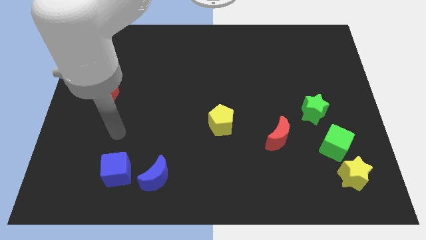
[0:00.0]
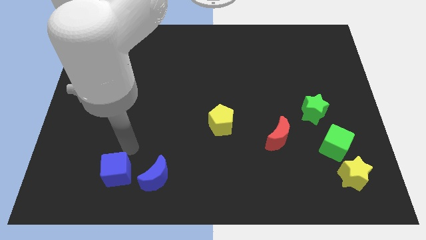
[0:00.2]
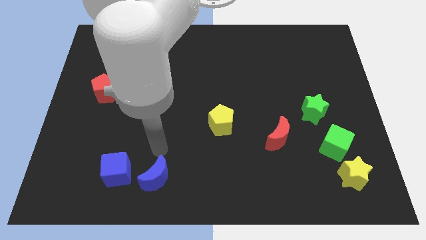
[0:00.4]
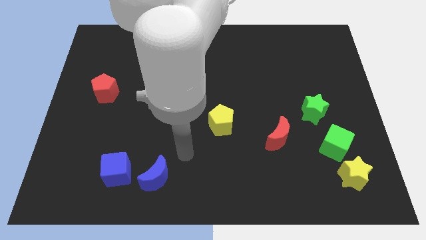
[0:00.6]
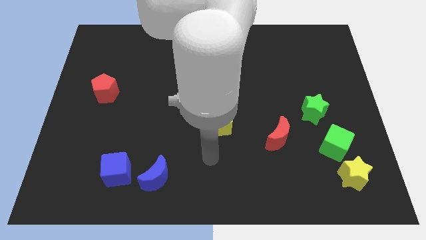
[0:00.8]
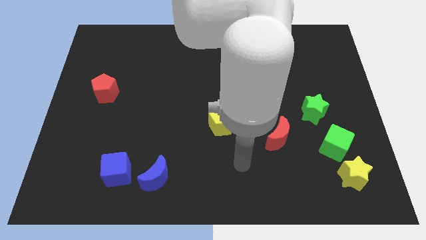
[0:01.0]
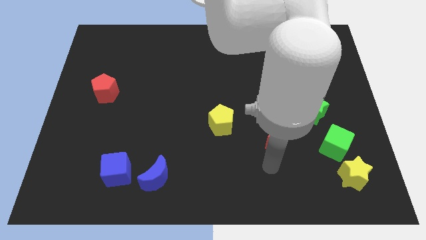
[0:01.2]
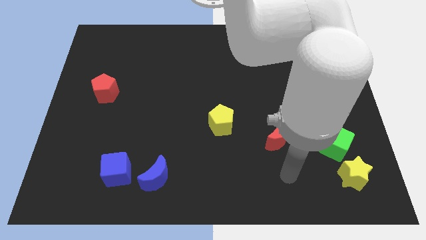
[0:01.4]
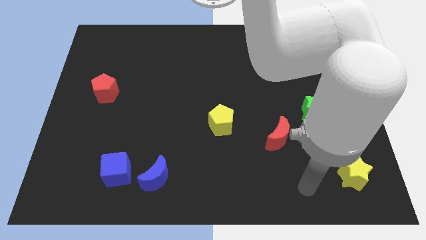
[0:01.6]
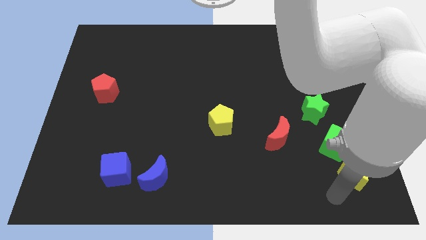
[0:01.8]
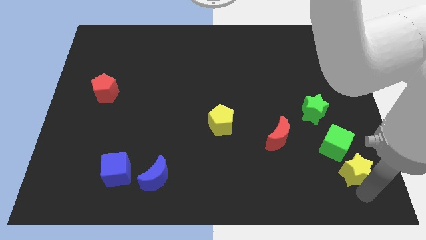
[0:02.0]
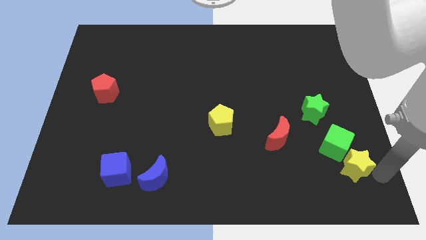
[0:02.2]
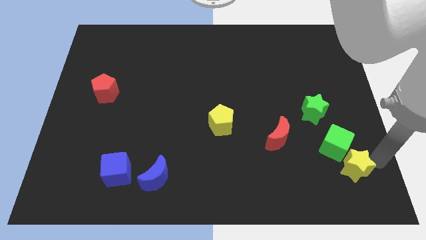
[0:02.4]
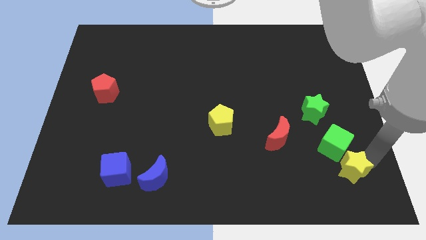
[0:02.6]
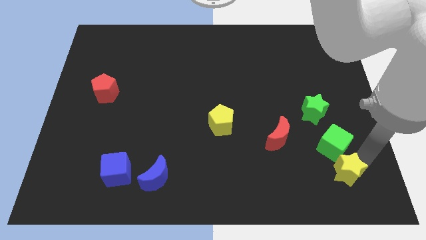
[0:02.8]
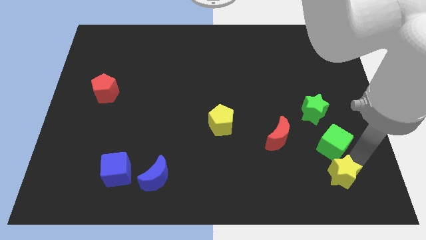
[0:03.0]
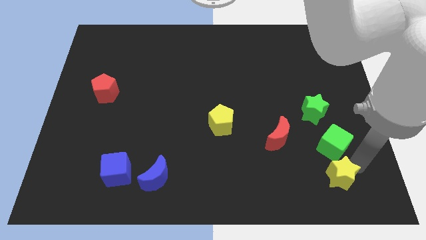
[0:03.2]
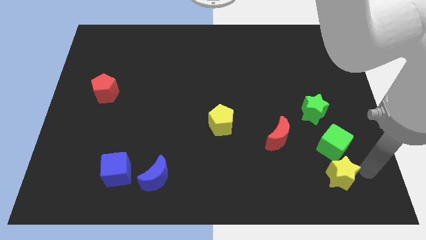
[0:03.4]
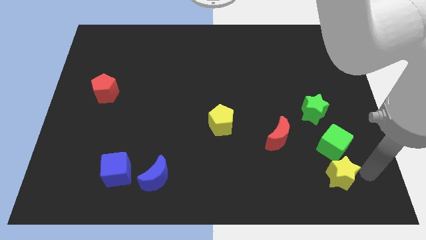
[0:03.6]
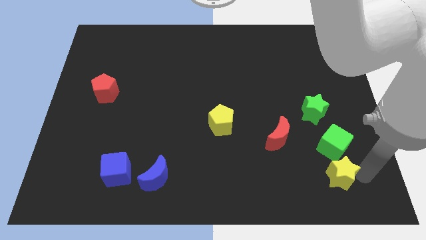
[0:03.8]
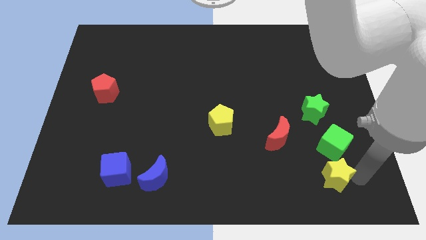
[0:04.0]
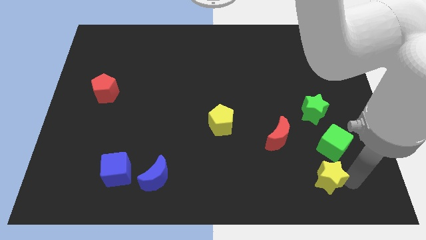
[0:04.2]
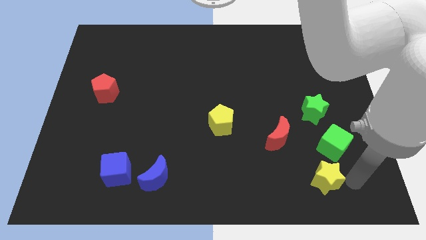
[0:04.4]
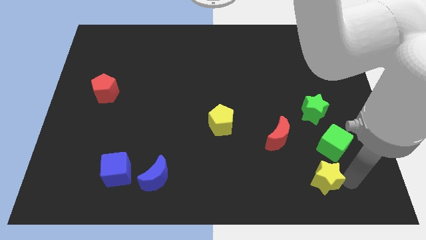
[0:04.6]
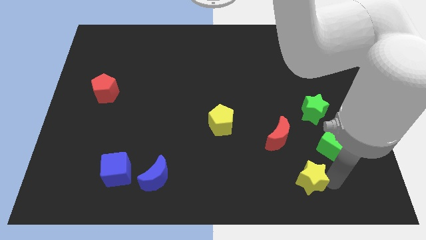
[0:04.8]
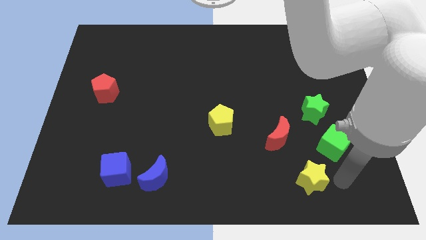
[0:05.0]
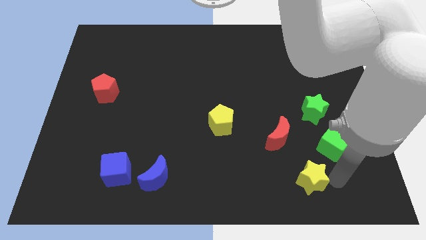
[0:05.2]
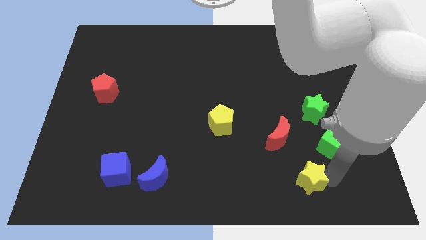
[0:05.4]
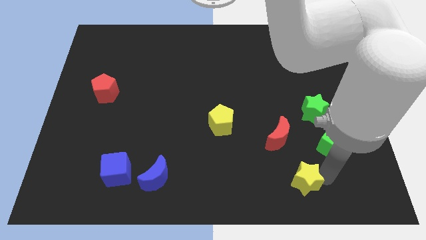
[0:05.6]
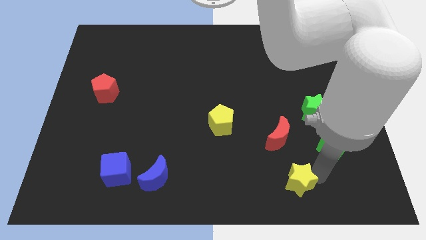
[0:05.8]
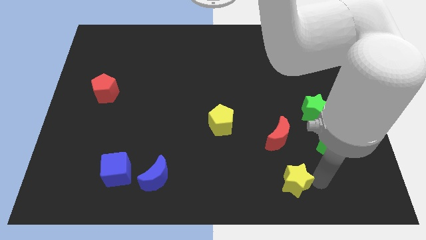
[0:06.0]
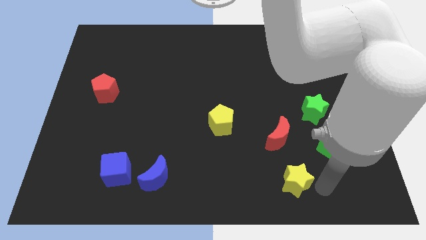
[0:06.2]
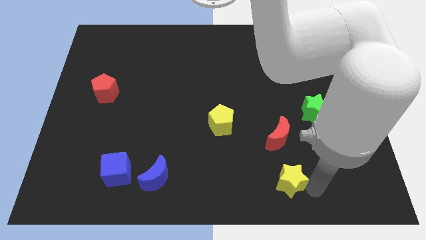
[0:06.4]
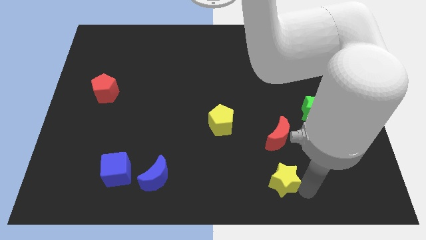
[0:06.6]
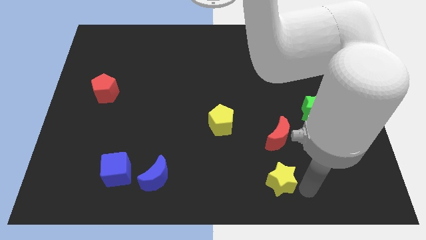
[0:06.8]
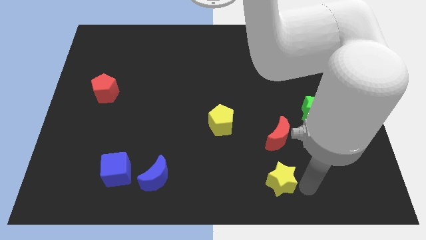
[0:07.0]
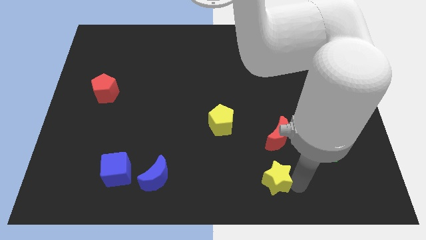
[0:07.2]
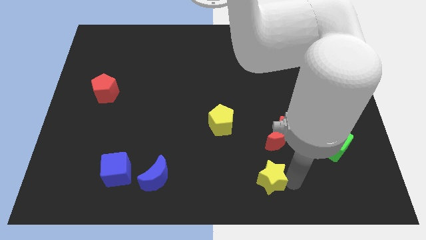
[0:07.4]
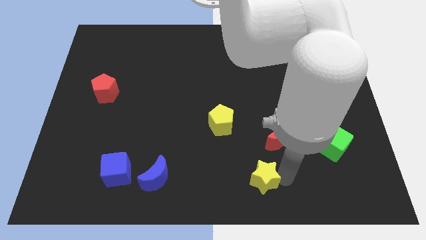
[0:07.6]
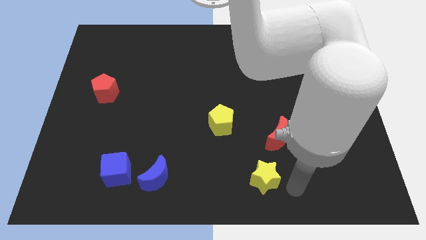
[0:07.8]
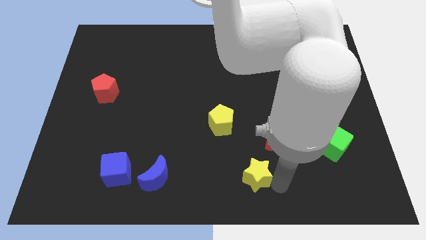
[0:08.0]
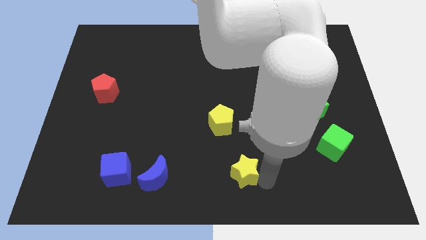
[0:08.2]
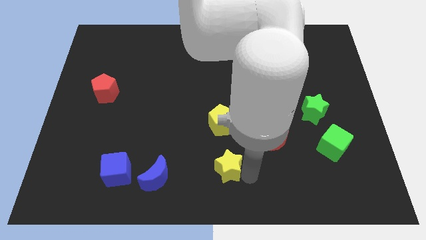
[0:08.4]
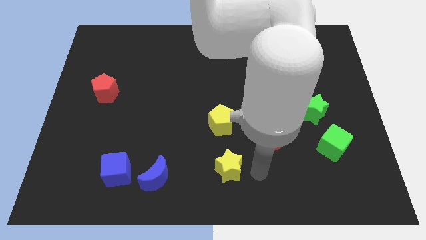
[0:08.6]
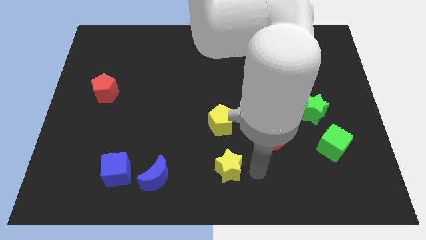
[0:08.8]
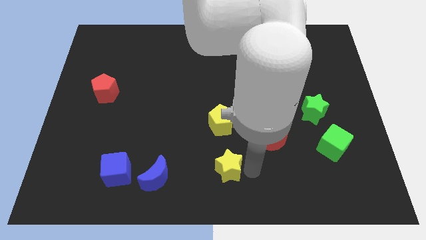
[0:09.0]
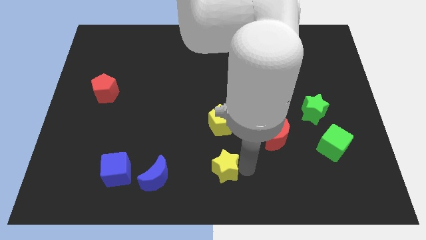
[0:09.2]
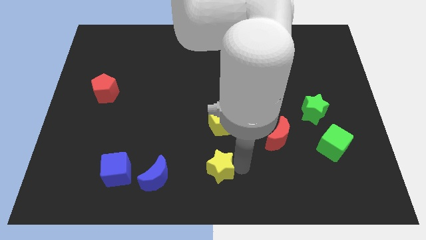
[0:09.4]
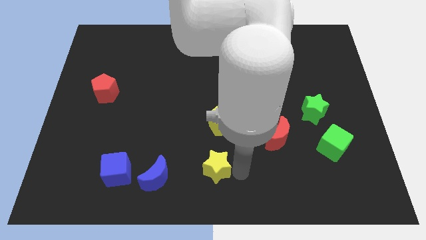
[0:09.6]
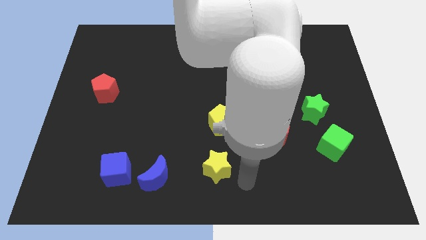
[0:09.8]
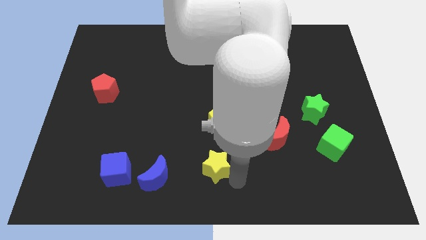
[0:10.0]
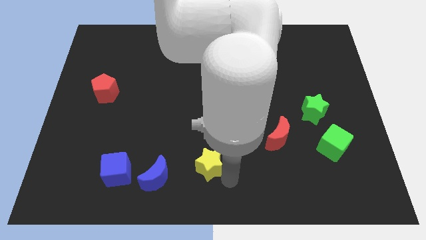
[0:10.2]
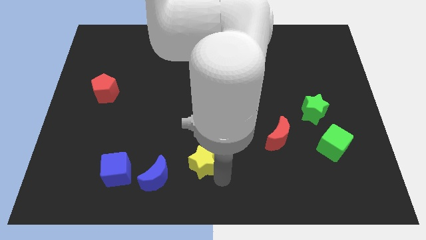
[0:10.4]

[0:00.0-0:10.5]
push the yellow star diagonally up and to the right of the blue moon

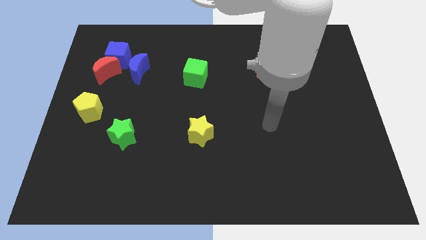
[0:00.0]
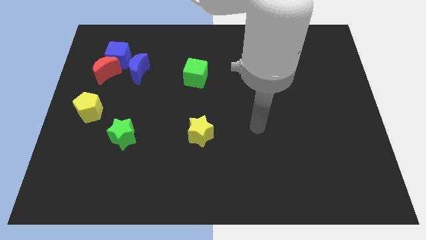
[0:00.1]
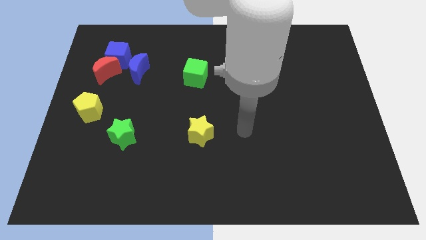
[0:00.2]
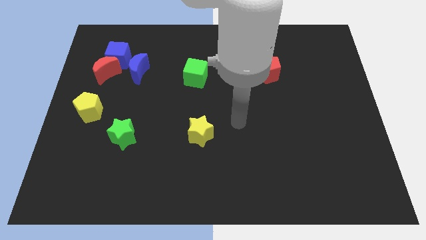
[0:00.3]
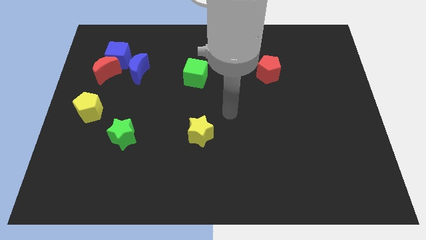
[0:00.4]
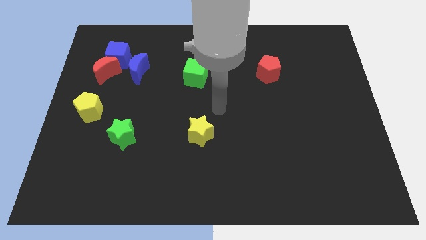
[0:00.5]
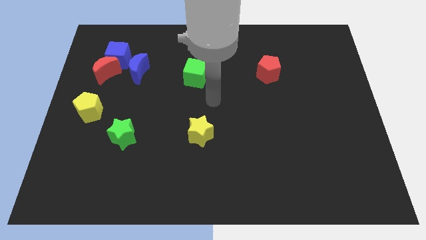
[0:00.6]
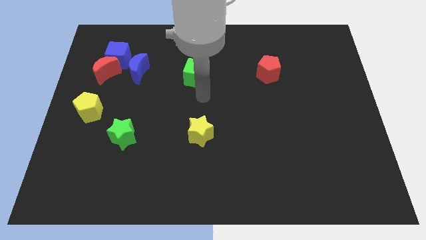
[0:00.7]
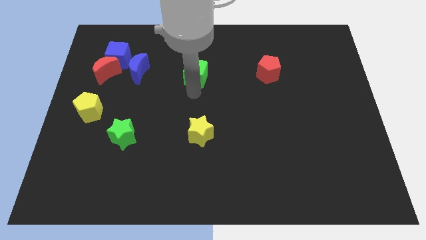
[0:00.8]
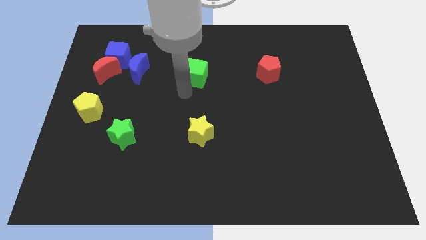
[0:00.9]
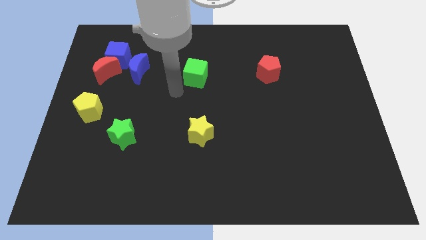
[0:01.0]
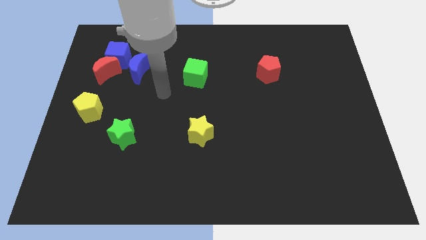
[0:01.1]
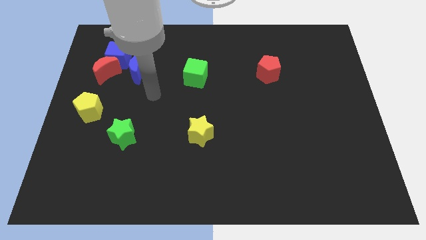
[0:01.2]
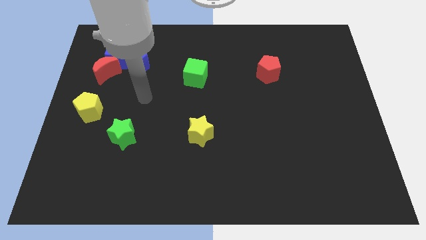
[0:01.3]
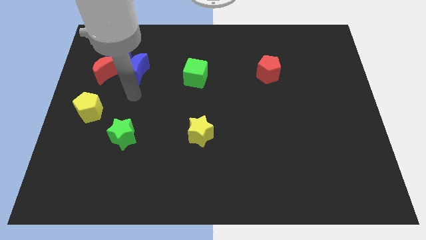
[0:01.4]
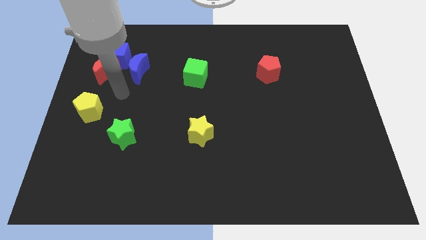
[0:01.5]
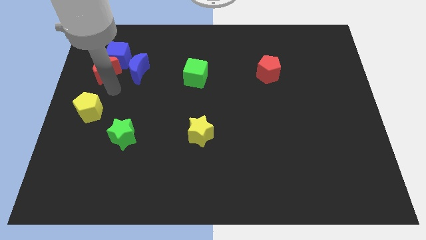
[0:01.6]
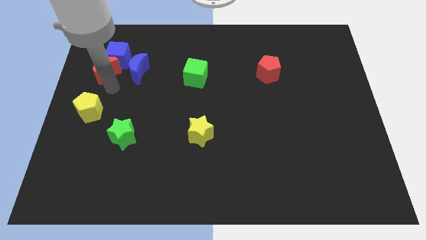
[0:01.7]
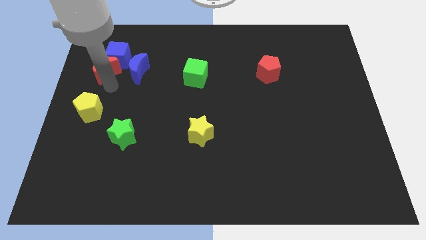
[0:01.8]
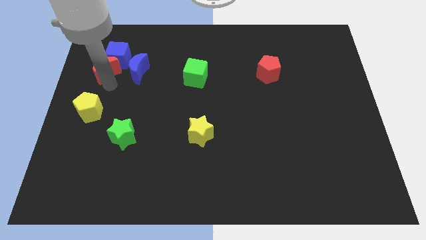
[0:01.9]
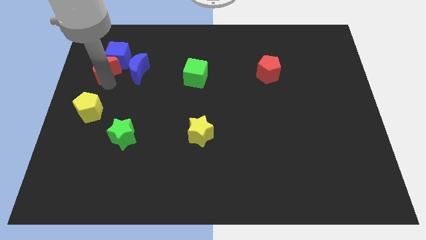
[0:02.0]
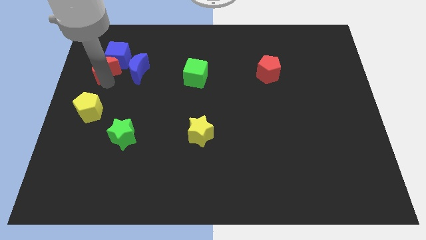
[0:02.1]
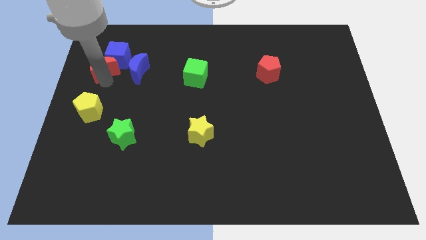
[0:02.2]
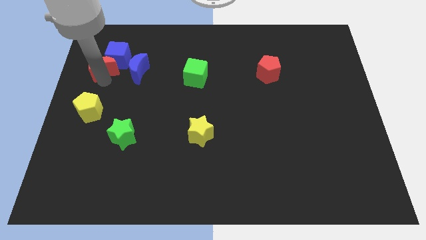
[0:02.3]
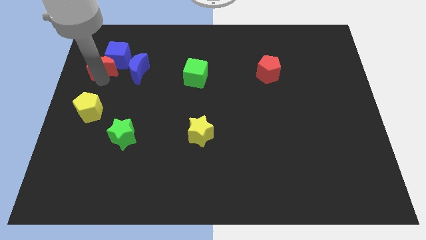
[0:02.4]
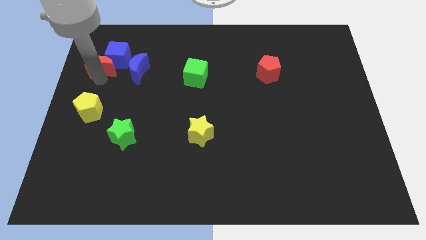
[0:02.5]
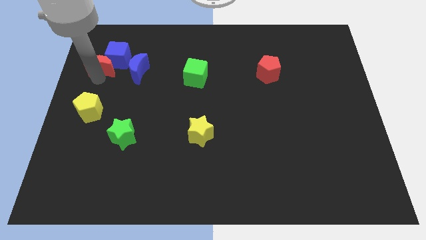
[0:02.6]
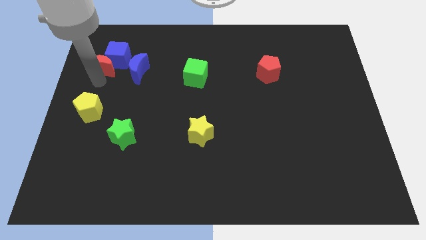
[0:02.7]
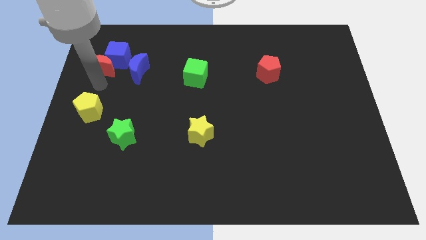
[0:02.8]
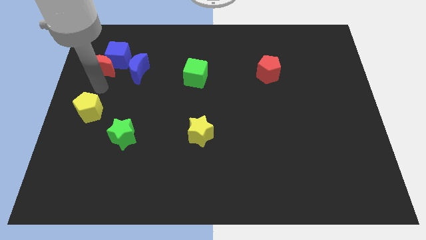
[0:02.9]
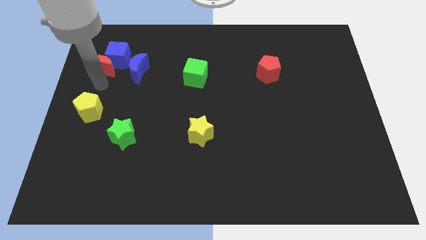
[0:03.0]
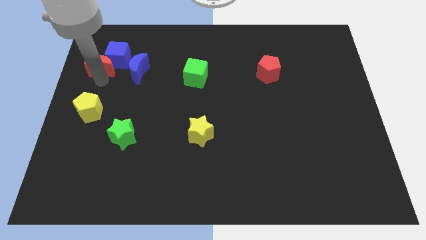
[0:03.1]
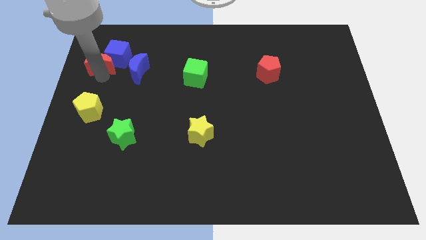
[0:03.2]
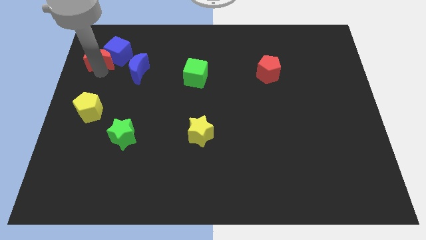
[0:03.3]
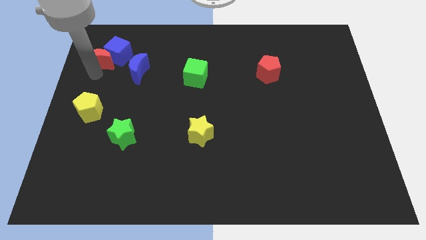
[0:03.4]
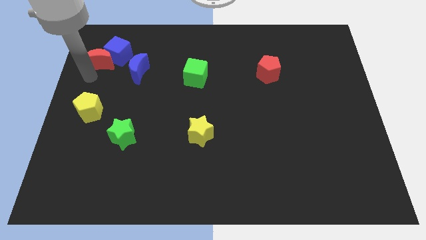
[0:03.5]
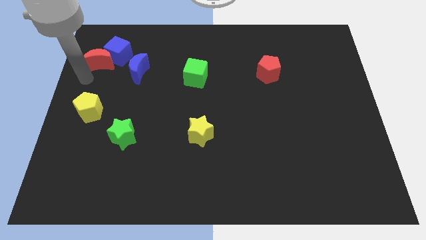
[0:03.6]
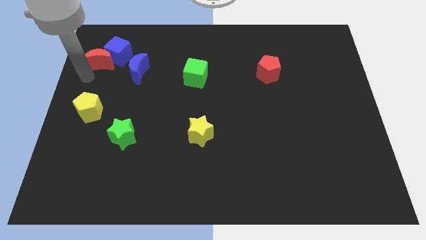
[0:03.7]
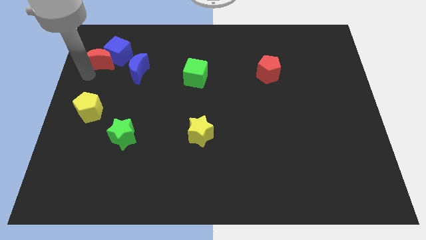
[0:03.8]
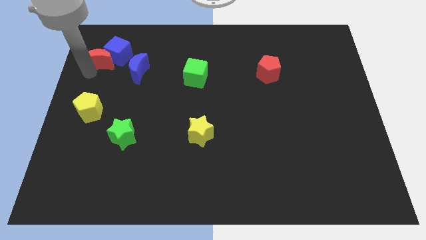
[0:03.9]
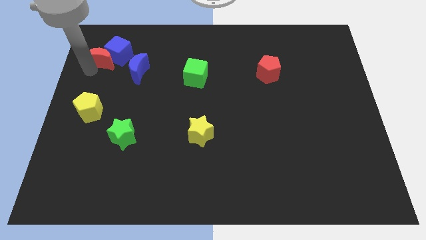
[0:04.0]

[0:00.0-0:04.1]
put the red moon to the top left of the blue moon
